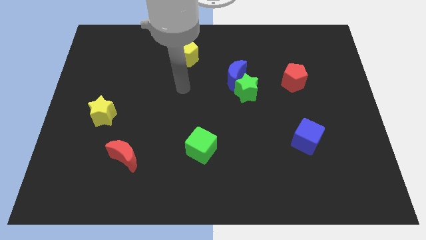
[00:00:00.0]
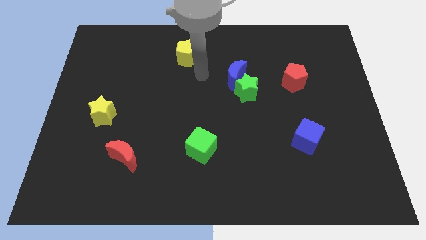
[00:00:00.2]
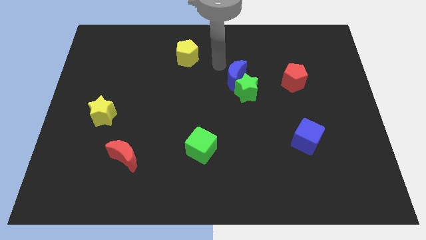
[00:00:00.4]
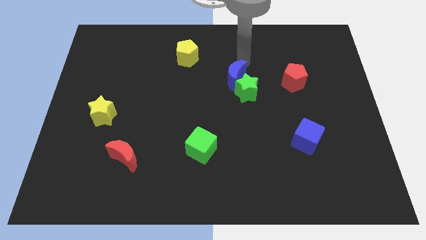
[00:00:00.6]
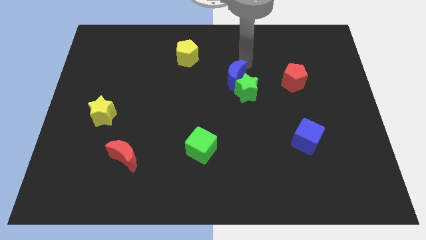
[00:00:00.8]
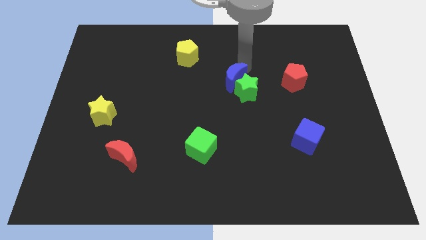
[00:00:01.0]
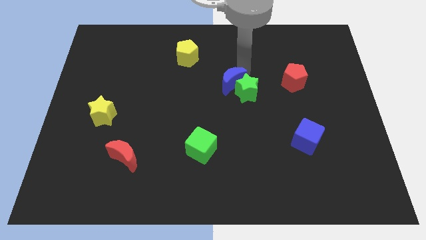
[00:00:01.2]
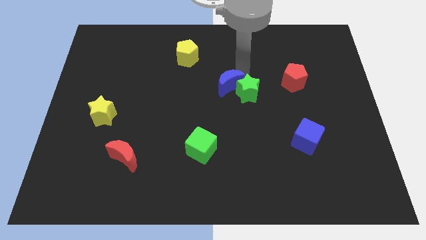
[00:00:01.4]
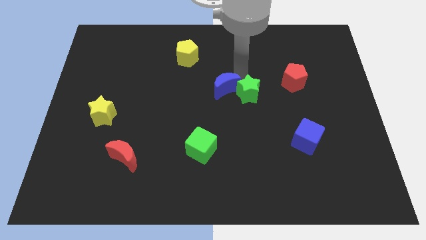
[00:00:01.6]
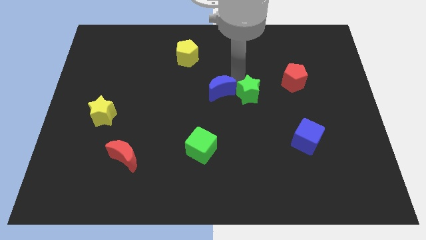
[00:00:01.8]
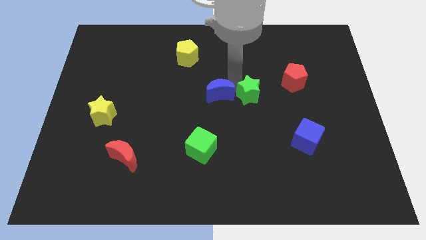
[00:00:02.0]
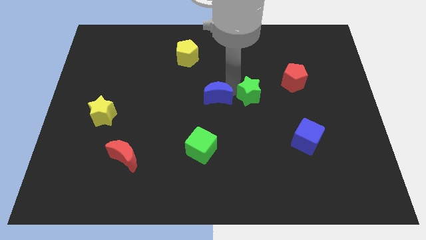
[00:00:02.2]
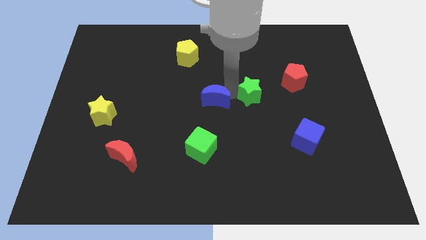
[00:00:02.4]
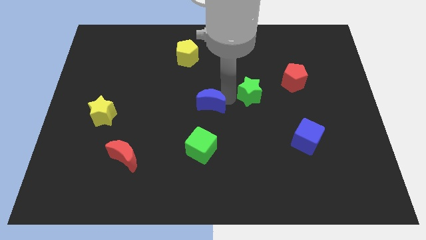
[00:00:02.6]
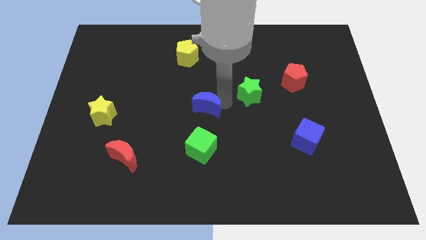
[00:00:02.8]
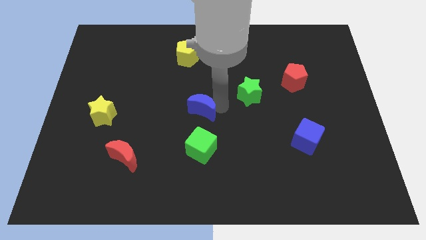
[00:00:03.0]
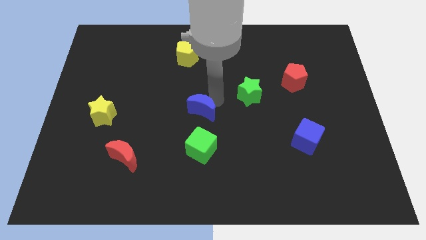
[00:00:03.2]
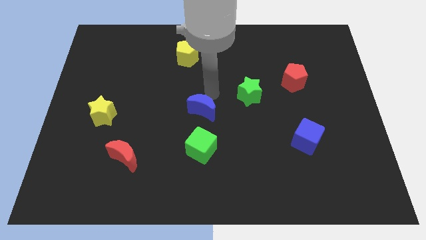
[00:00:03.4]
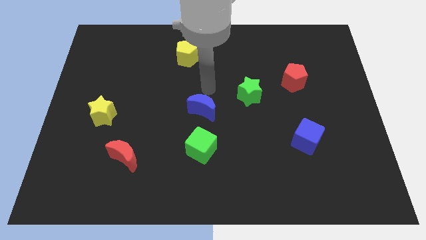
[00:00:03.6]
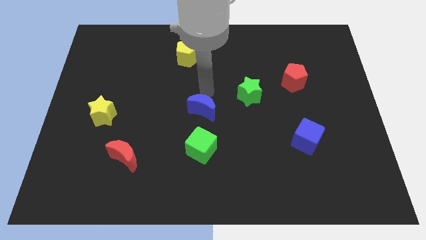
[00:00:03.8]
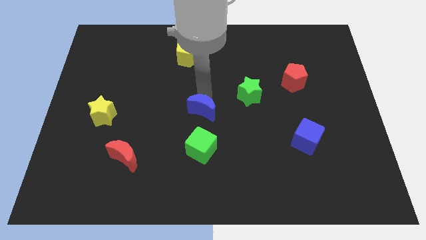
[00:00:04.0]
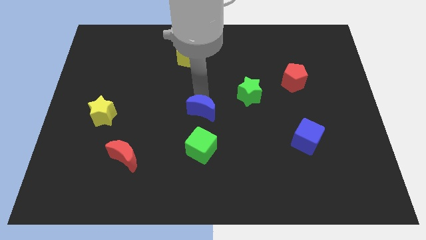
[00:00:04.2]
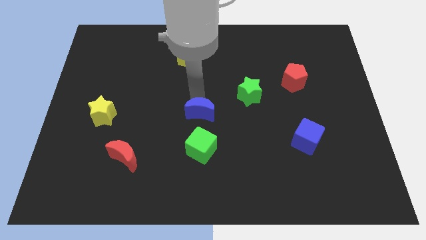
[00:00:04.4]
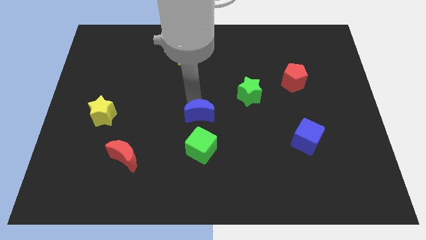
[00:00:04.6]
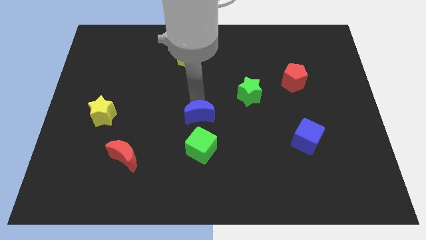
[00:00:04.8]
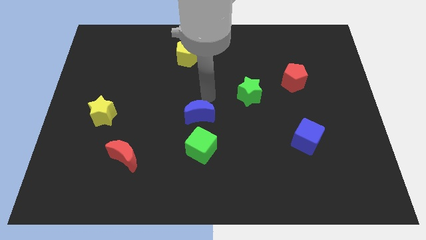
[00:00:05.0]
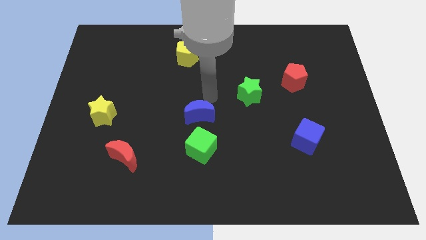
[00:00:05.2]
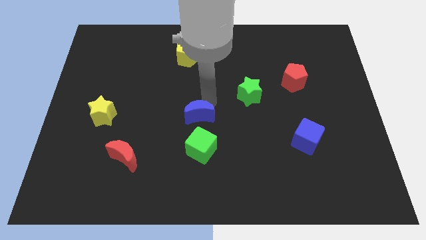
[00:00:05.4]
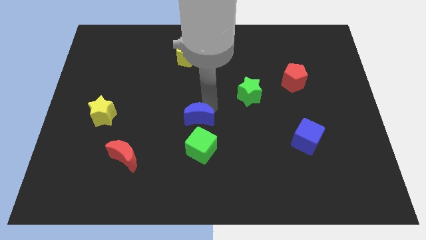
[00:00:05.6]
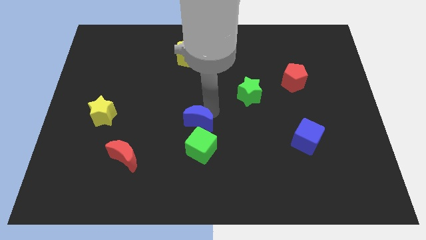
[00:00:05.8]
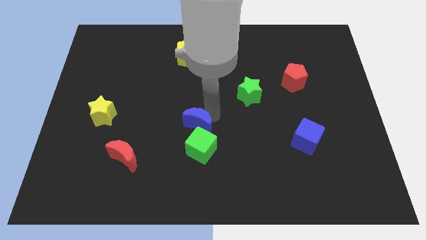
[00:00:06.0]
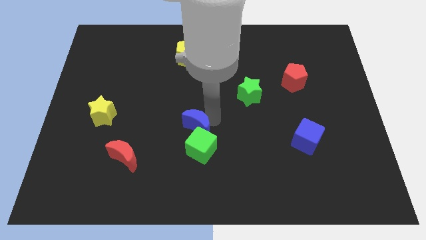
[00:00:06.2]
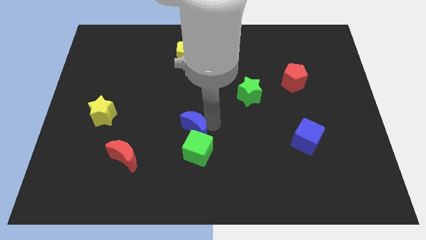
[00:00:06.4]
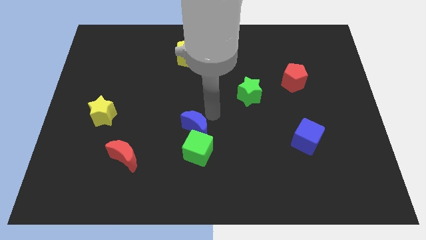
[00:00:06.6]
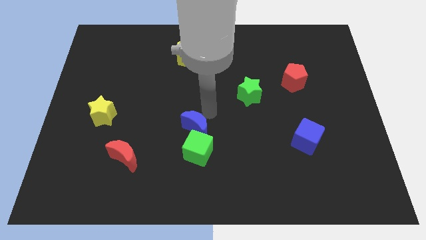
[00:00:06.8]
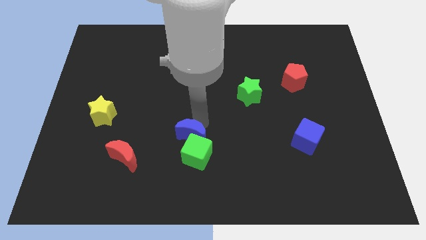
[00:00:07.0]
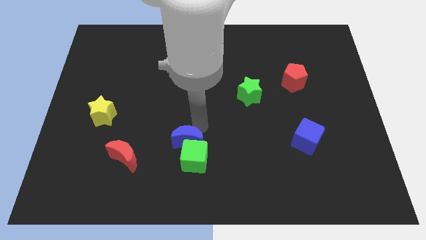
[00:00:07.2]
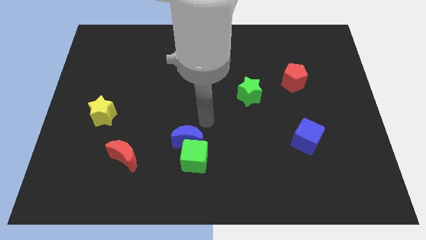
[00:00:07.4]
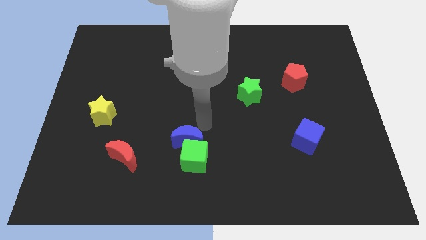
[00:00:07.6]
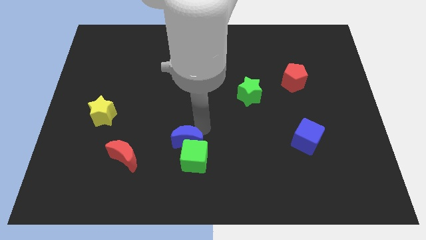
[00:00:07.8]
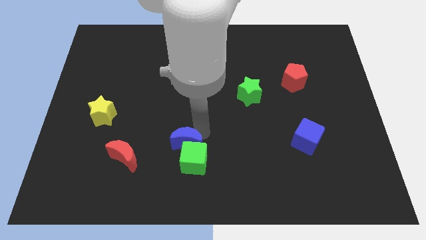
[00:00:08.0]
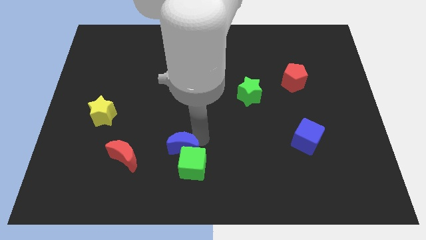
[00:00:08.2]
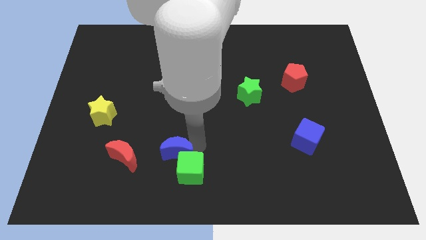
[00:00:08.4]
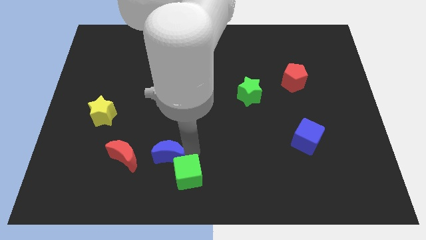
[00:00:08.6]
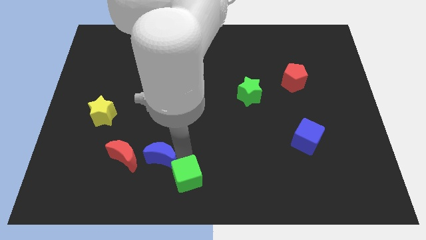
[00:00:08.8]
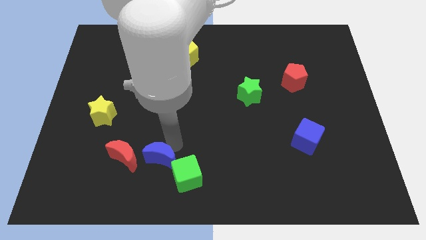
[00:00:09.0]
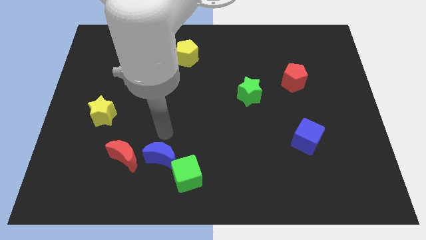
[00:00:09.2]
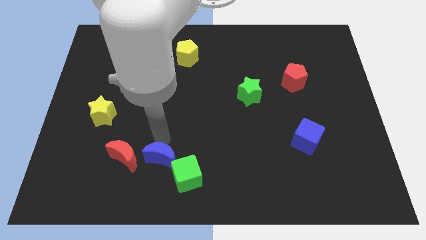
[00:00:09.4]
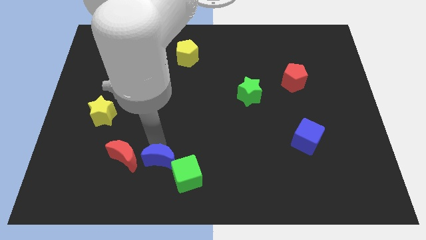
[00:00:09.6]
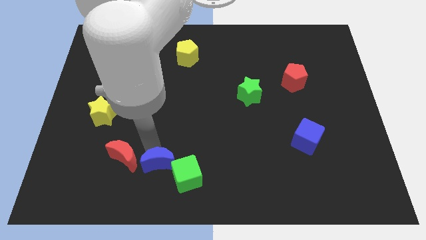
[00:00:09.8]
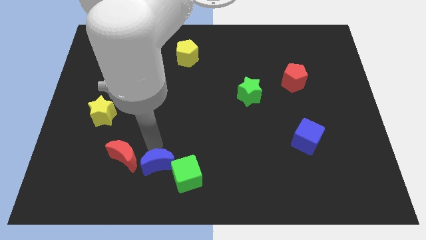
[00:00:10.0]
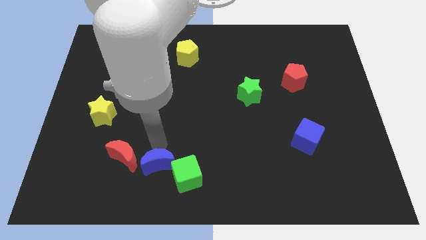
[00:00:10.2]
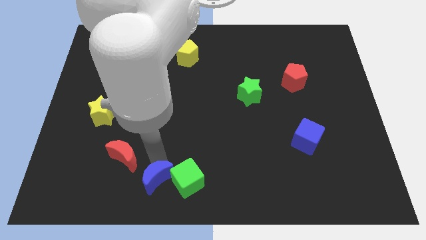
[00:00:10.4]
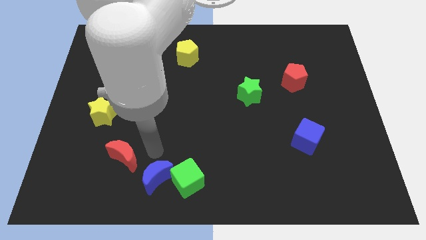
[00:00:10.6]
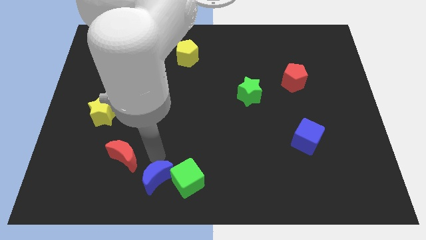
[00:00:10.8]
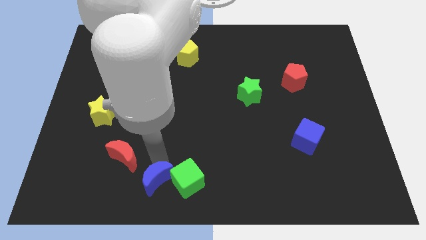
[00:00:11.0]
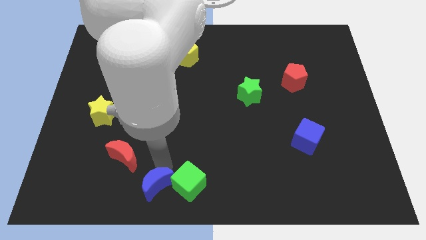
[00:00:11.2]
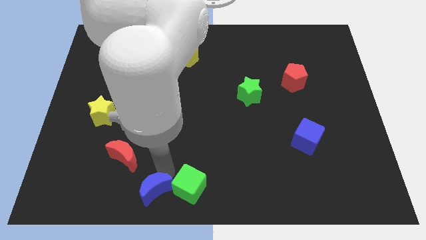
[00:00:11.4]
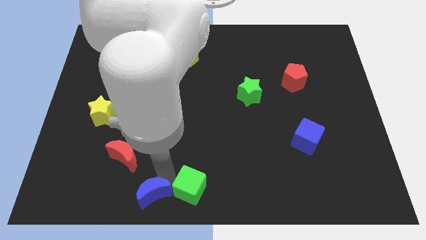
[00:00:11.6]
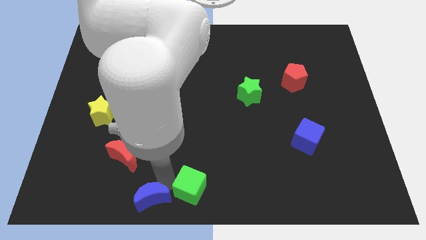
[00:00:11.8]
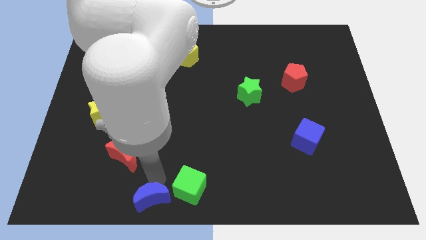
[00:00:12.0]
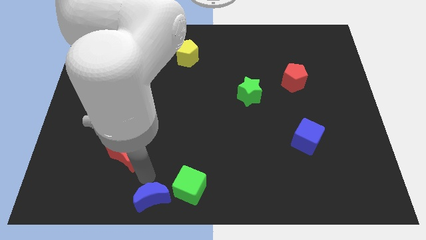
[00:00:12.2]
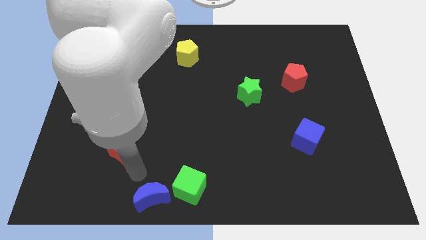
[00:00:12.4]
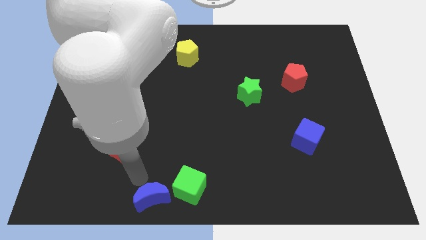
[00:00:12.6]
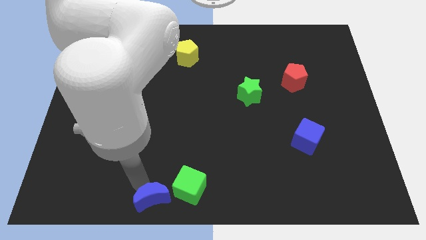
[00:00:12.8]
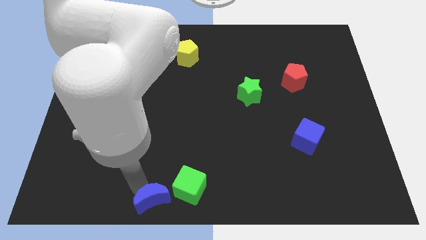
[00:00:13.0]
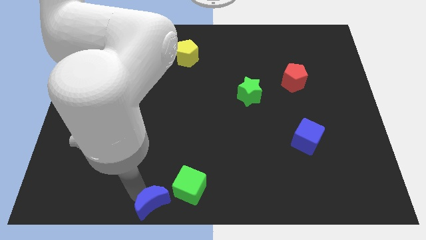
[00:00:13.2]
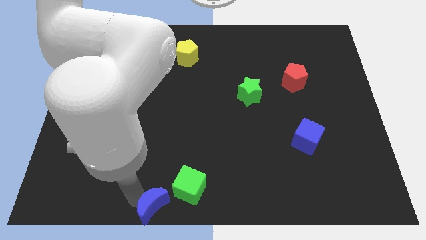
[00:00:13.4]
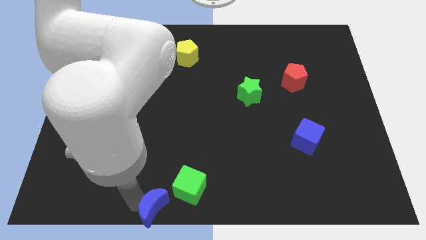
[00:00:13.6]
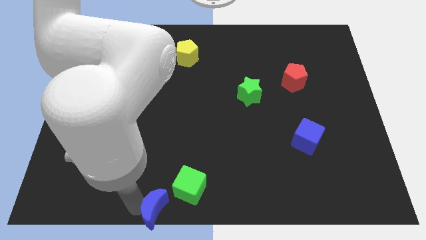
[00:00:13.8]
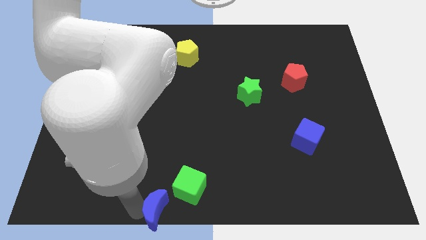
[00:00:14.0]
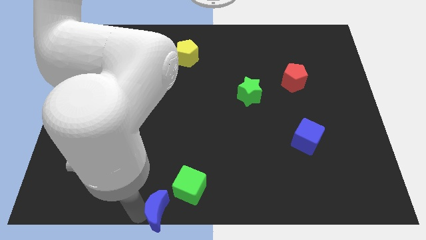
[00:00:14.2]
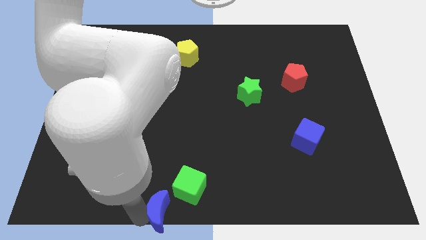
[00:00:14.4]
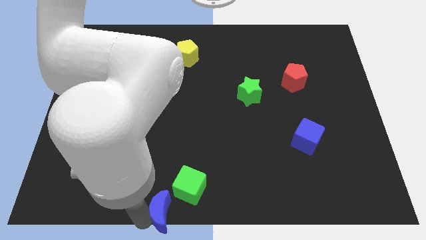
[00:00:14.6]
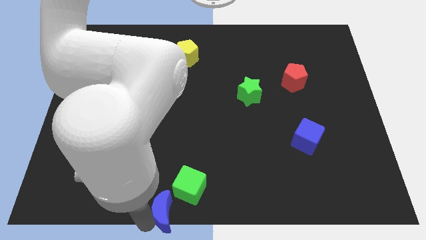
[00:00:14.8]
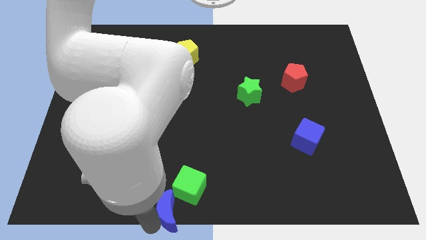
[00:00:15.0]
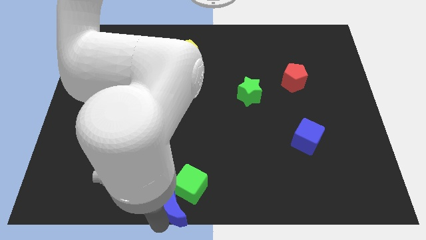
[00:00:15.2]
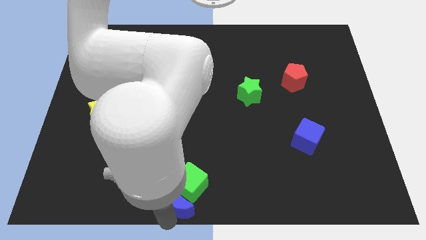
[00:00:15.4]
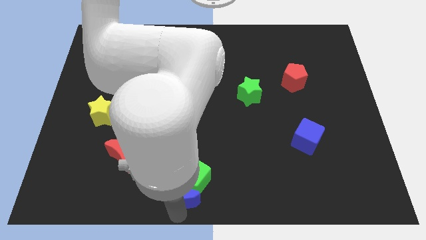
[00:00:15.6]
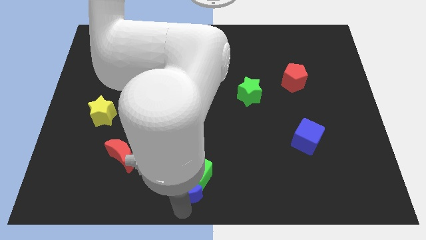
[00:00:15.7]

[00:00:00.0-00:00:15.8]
push the blue moon diagonally down and to the left of the green cube
